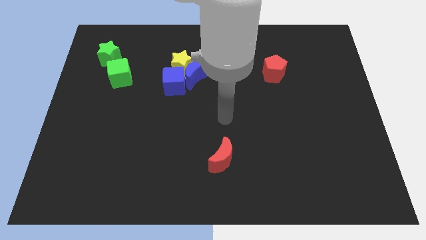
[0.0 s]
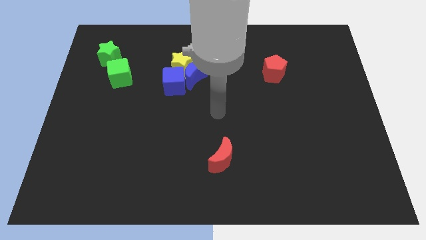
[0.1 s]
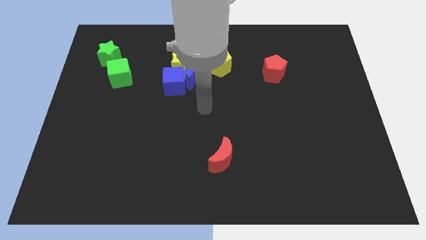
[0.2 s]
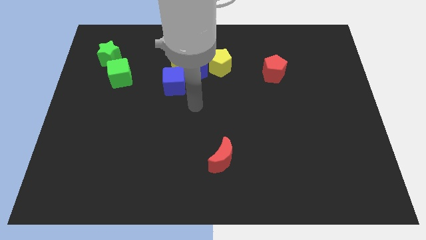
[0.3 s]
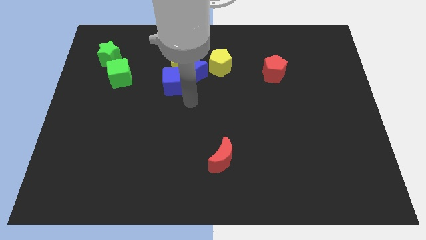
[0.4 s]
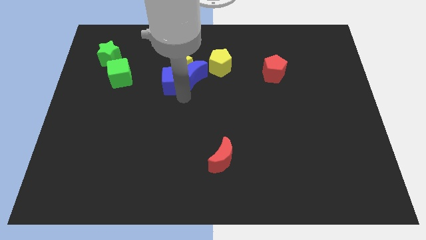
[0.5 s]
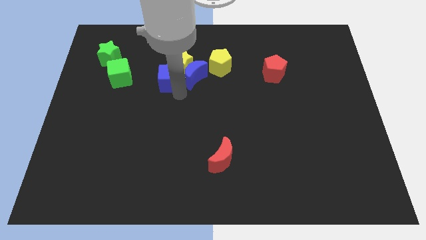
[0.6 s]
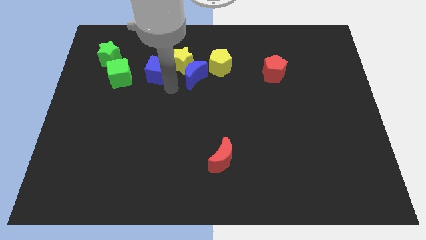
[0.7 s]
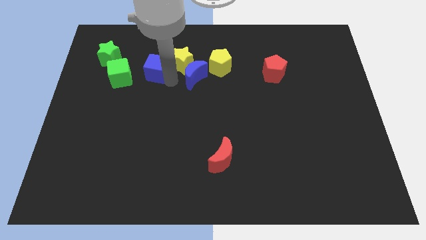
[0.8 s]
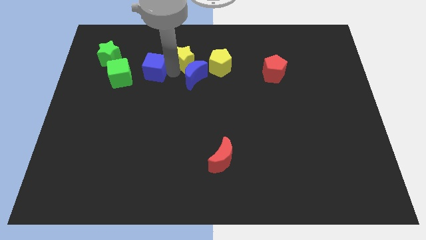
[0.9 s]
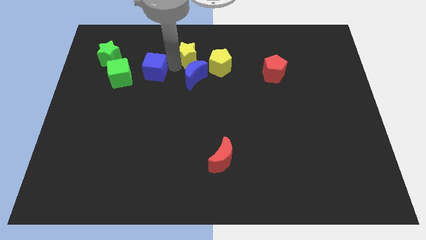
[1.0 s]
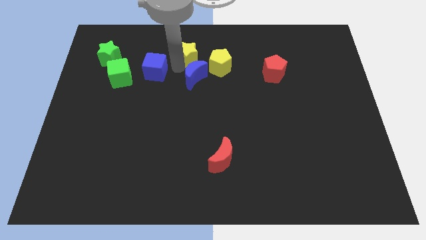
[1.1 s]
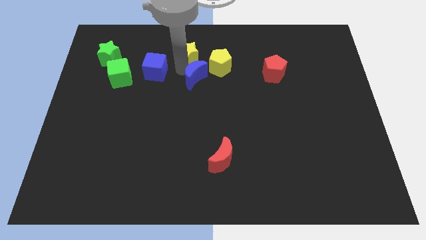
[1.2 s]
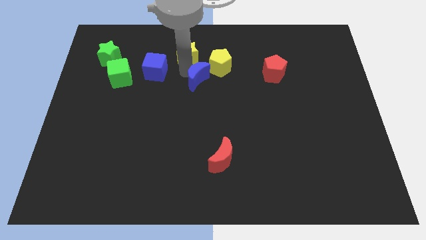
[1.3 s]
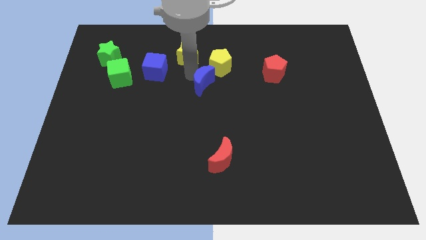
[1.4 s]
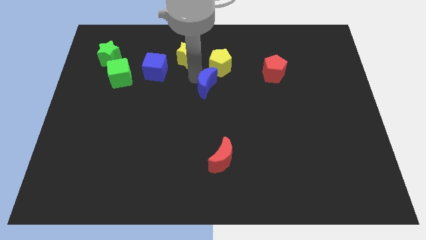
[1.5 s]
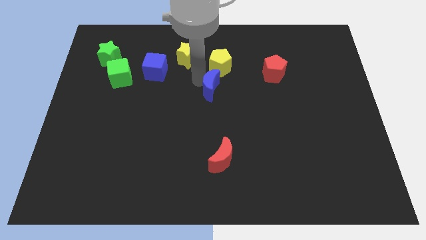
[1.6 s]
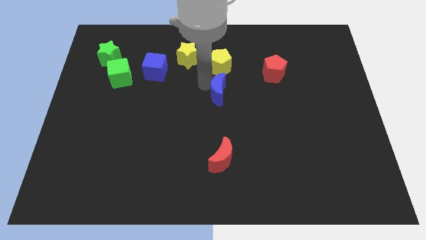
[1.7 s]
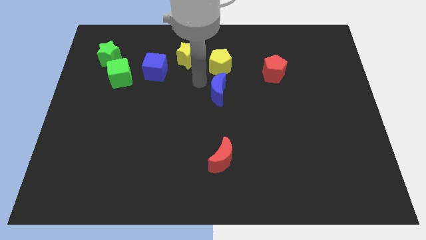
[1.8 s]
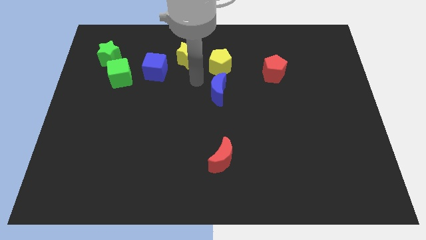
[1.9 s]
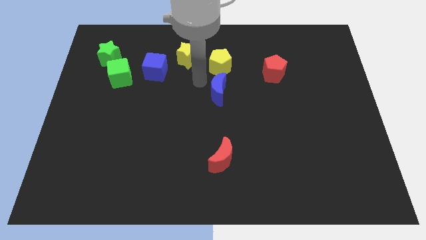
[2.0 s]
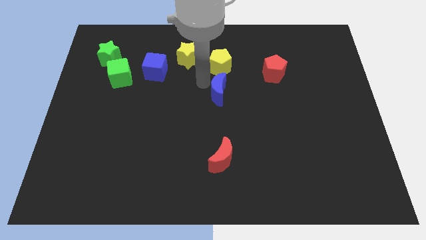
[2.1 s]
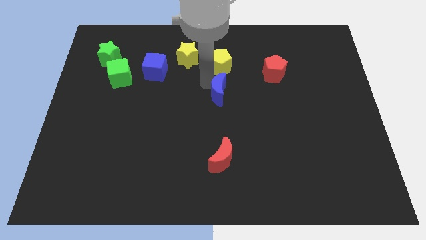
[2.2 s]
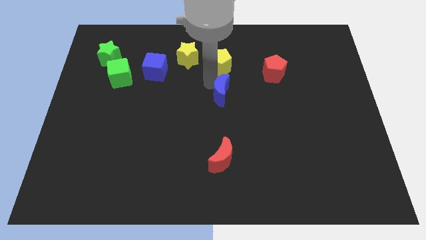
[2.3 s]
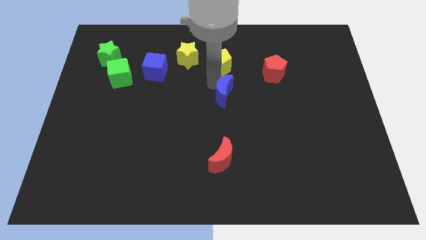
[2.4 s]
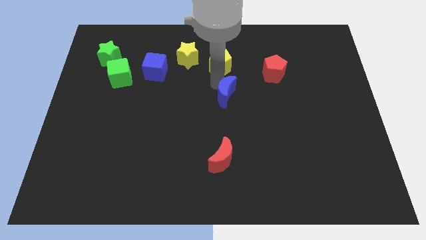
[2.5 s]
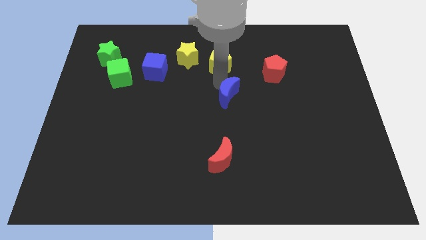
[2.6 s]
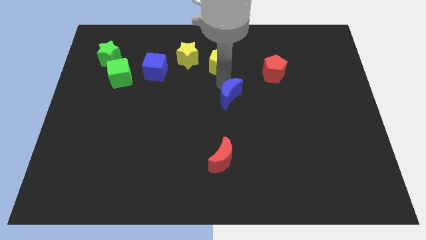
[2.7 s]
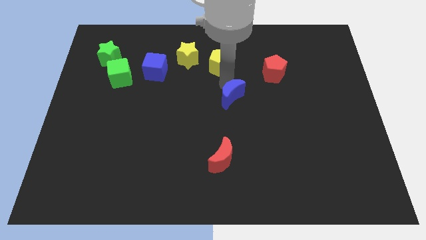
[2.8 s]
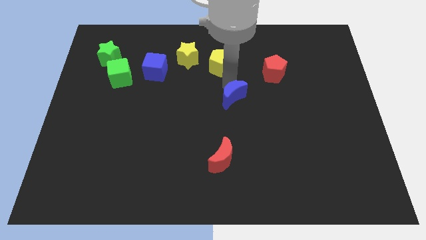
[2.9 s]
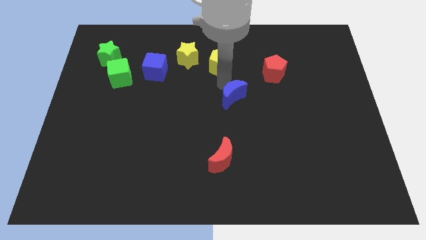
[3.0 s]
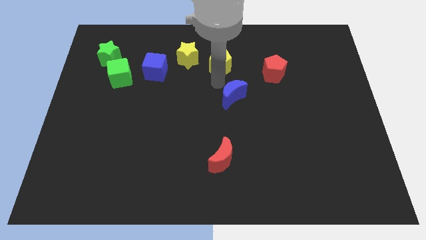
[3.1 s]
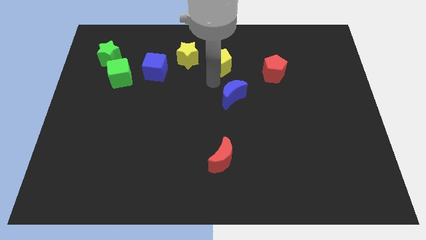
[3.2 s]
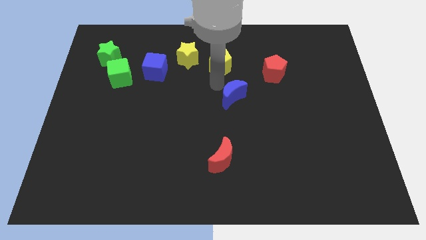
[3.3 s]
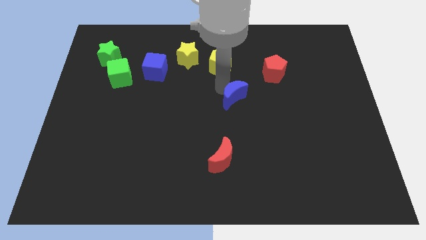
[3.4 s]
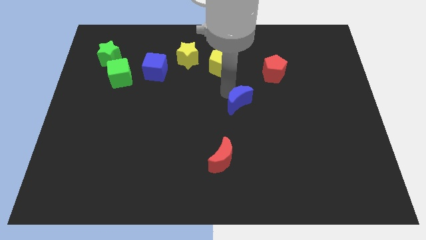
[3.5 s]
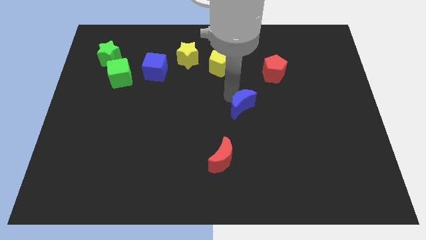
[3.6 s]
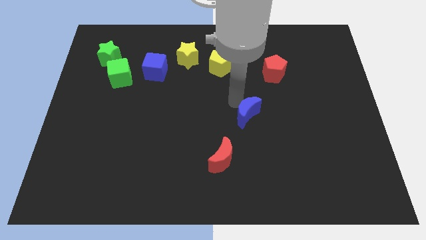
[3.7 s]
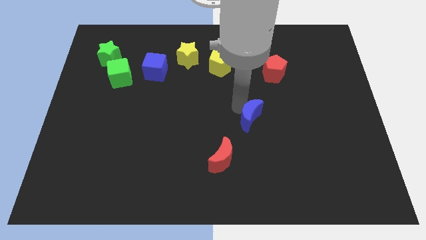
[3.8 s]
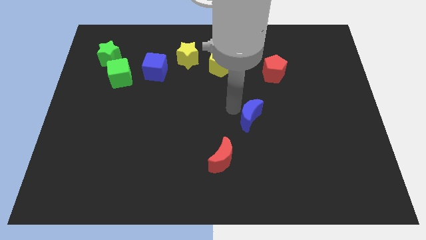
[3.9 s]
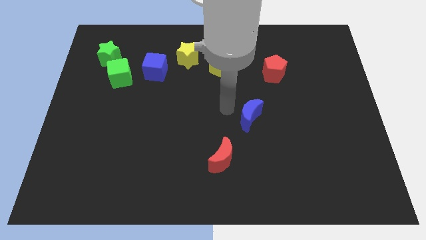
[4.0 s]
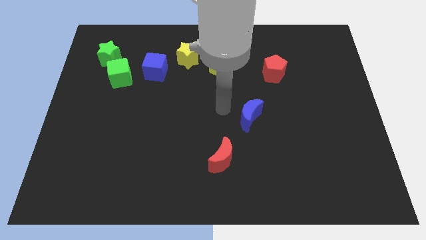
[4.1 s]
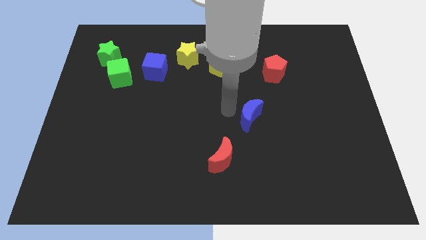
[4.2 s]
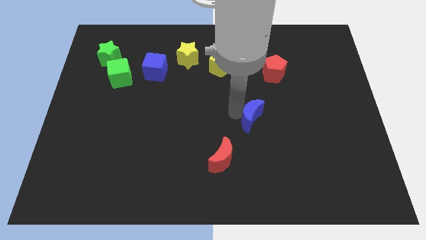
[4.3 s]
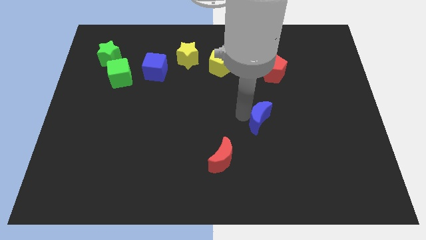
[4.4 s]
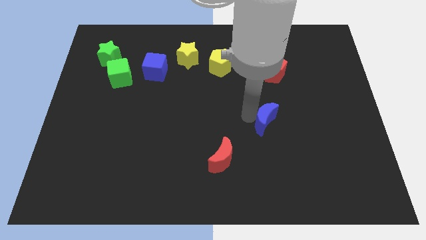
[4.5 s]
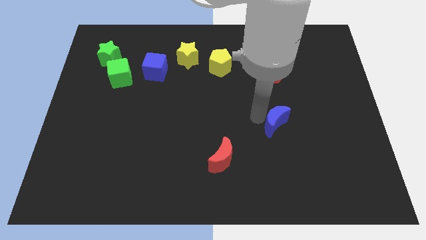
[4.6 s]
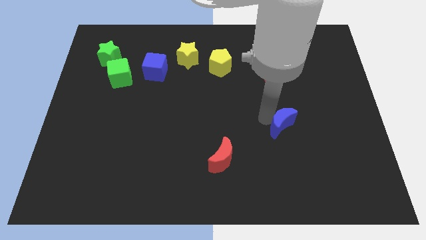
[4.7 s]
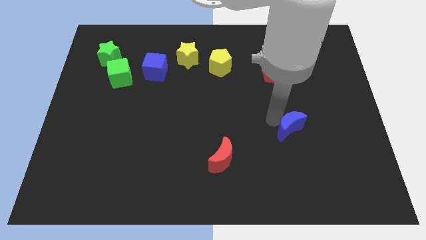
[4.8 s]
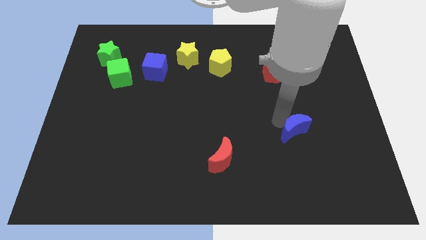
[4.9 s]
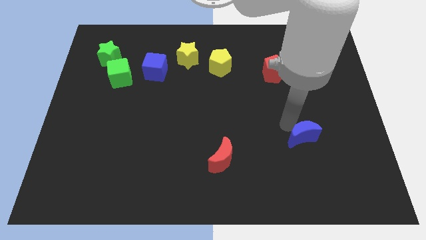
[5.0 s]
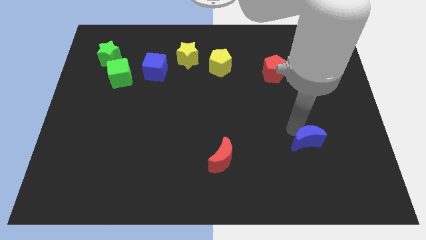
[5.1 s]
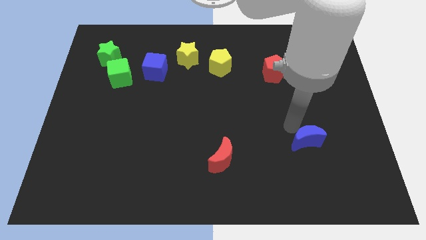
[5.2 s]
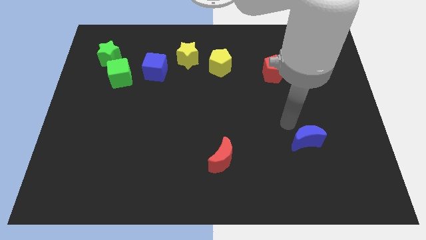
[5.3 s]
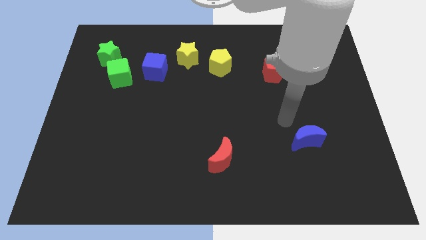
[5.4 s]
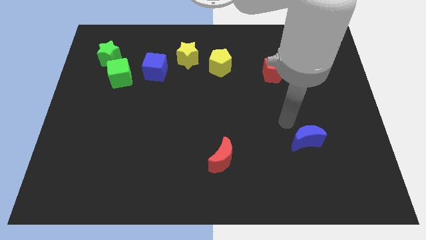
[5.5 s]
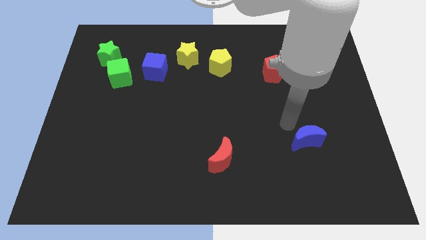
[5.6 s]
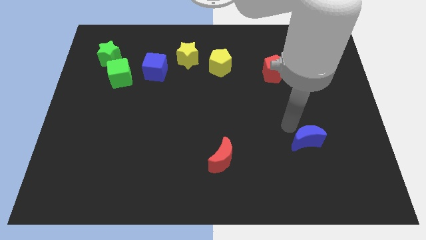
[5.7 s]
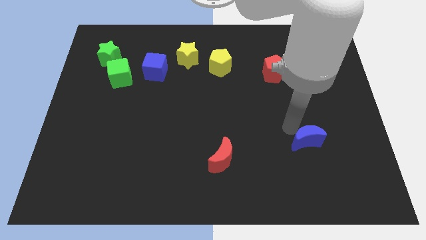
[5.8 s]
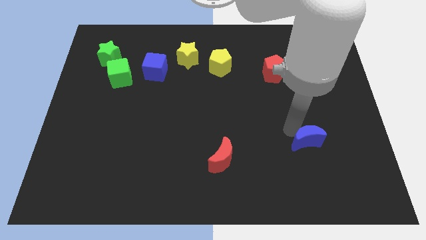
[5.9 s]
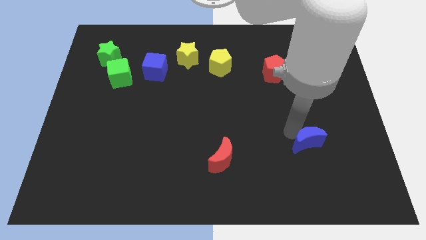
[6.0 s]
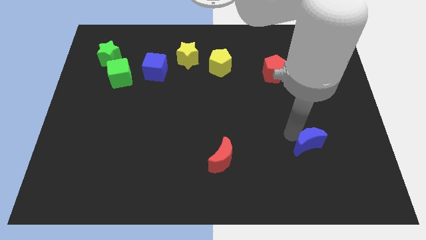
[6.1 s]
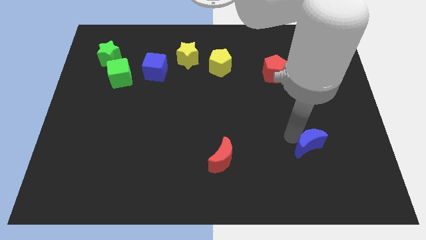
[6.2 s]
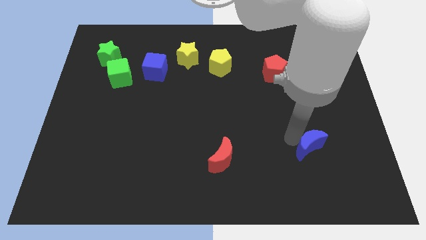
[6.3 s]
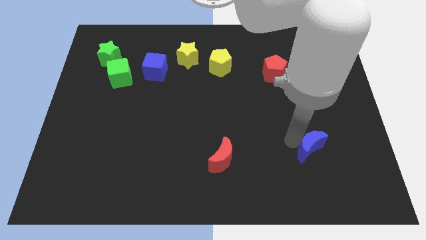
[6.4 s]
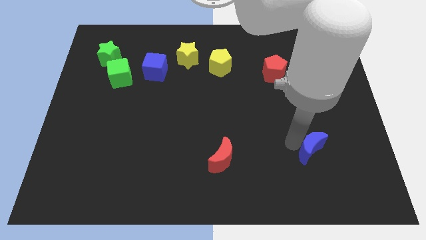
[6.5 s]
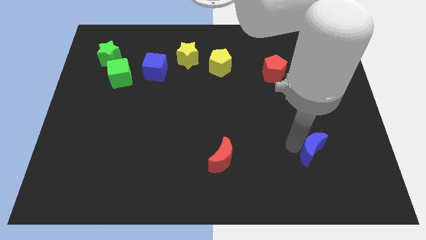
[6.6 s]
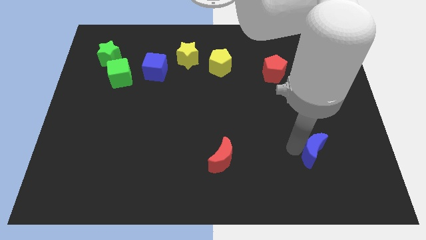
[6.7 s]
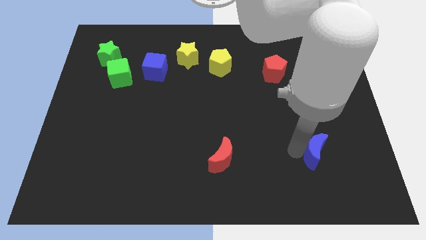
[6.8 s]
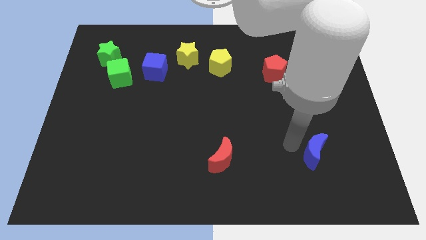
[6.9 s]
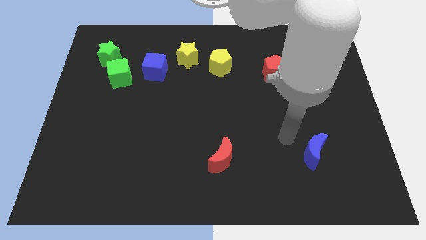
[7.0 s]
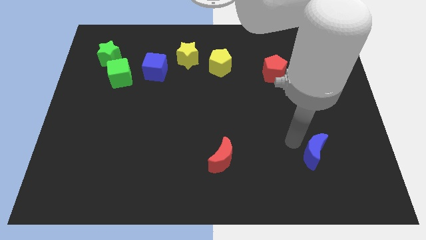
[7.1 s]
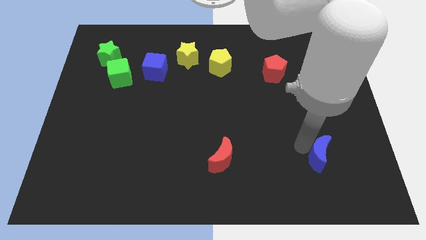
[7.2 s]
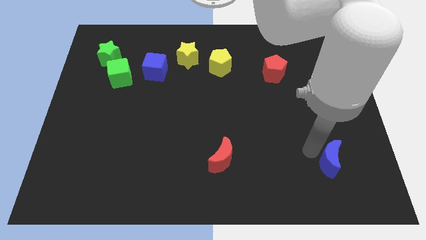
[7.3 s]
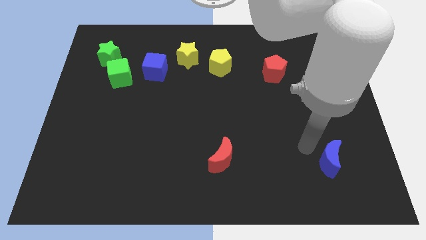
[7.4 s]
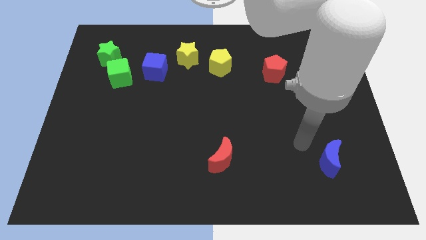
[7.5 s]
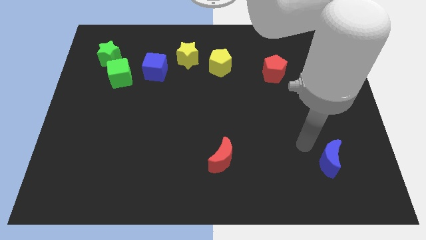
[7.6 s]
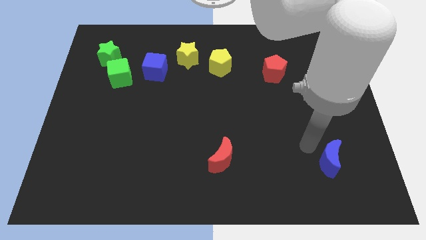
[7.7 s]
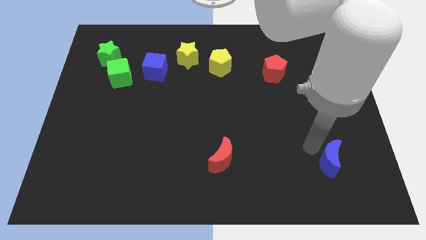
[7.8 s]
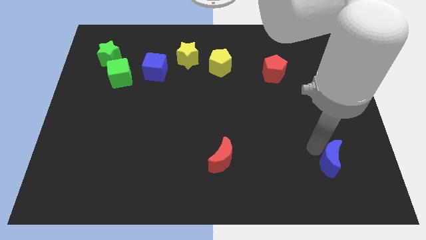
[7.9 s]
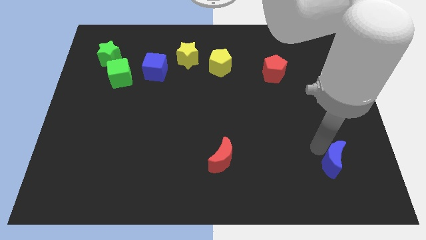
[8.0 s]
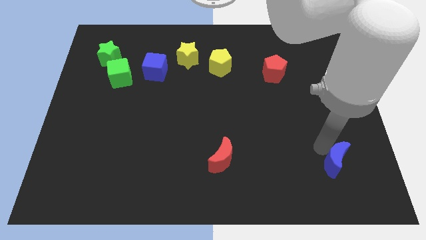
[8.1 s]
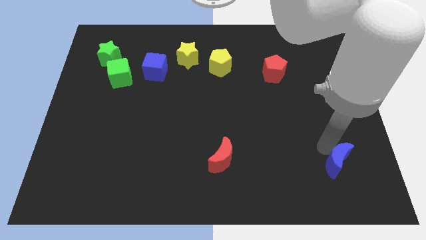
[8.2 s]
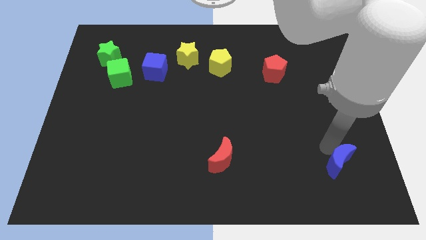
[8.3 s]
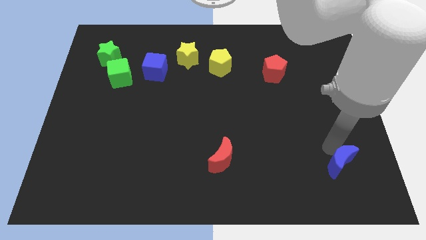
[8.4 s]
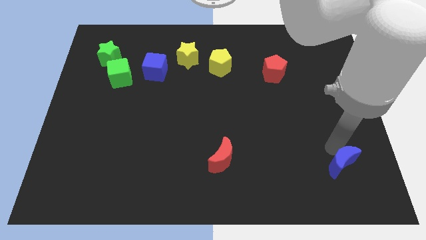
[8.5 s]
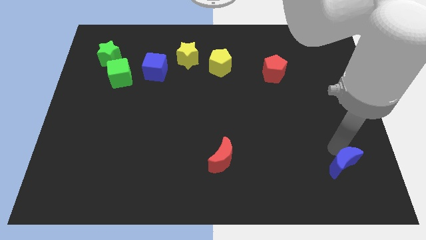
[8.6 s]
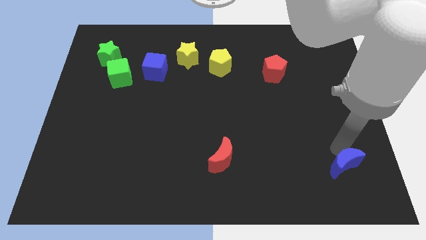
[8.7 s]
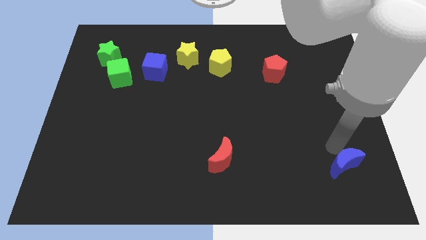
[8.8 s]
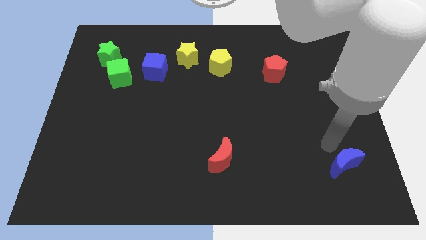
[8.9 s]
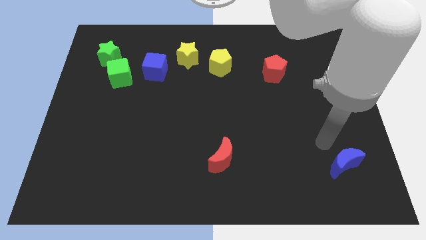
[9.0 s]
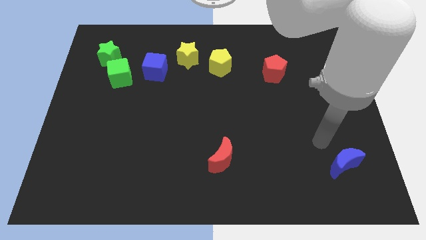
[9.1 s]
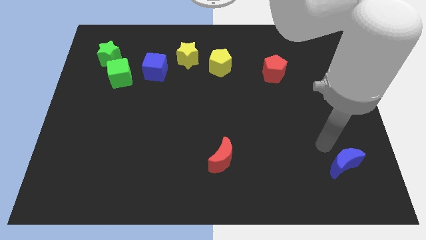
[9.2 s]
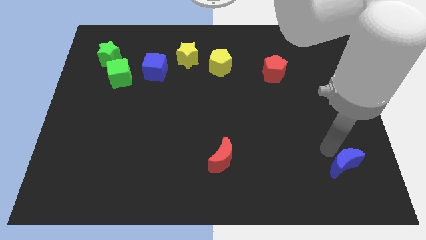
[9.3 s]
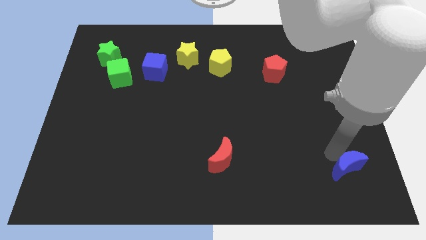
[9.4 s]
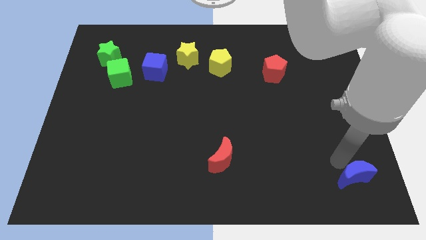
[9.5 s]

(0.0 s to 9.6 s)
move the blue moon to the bottom right
